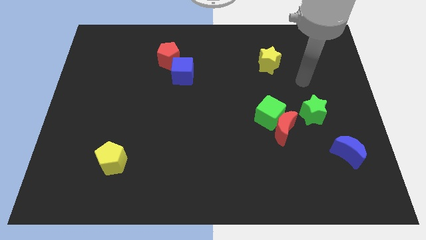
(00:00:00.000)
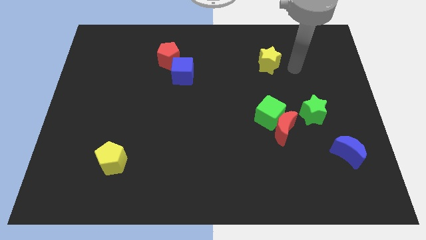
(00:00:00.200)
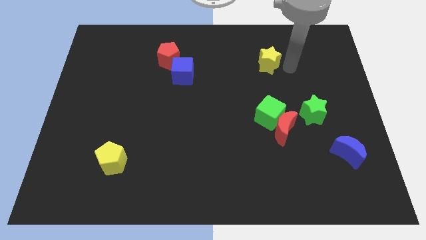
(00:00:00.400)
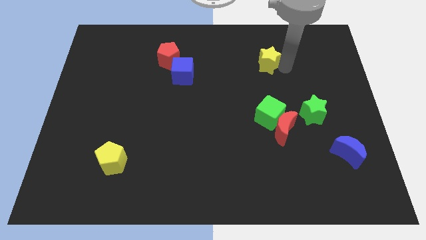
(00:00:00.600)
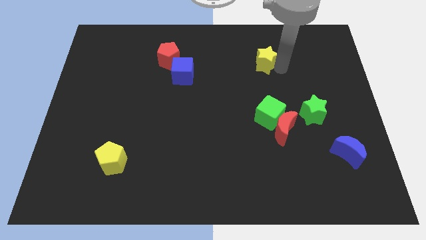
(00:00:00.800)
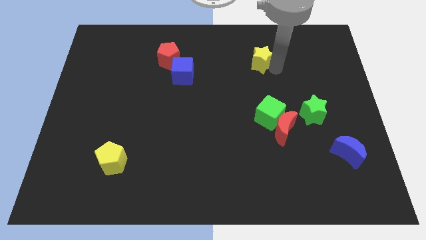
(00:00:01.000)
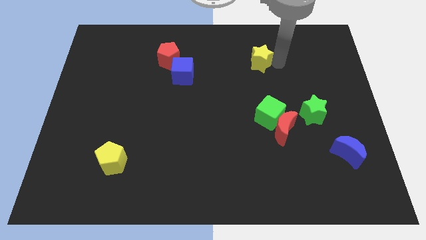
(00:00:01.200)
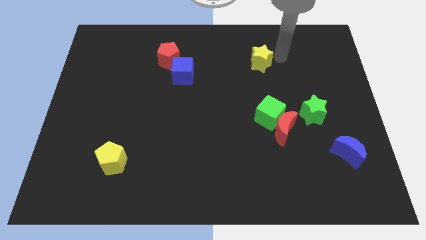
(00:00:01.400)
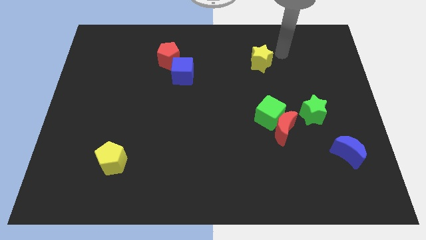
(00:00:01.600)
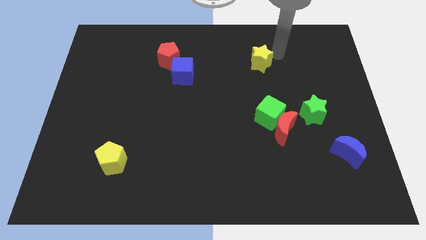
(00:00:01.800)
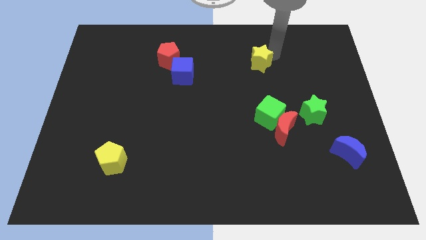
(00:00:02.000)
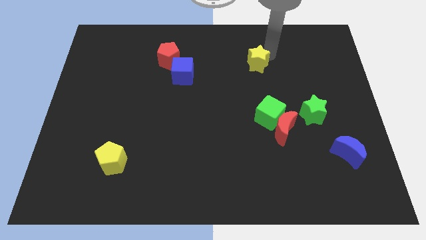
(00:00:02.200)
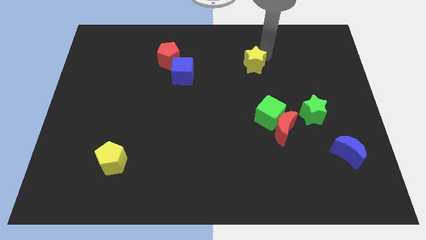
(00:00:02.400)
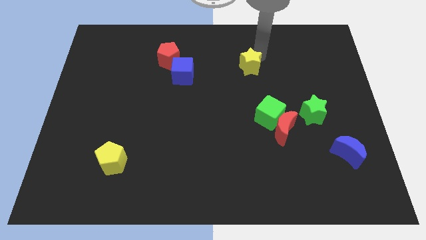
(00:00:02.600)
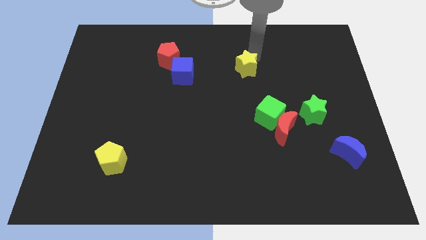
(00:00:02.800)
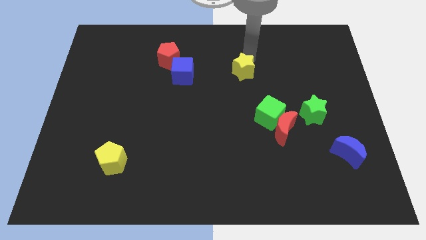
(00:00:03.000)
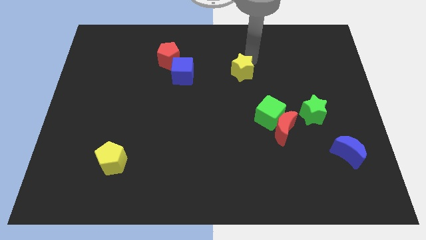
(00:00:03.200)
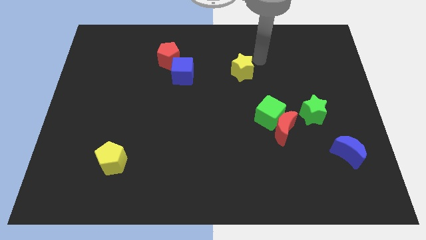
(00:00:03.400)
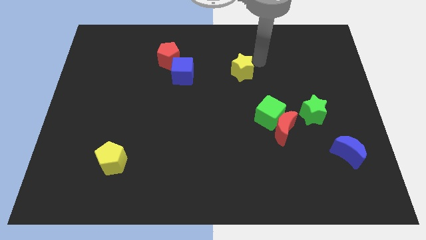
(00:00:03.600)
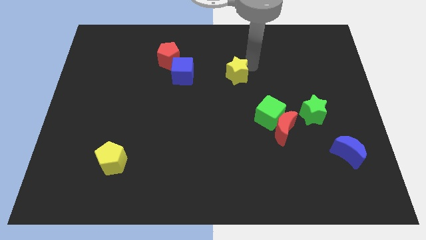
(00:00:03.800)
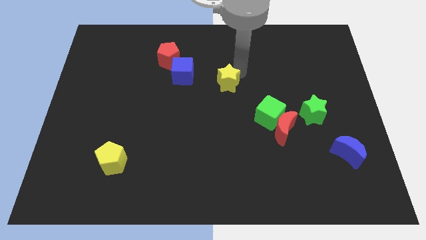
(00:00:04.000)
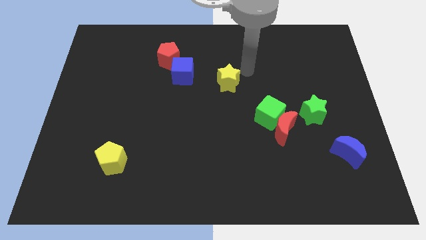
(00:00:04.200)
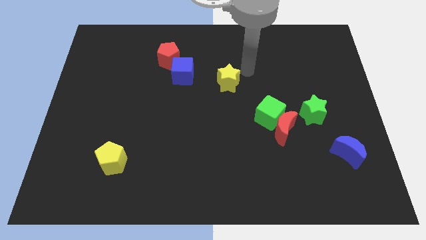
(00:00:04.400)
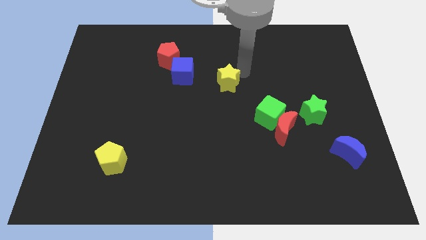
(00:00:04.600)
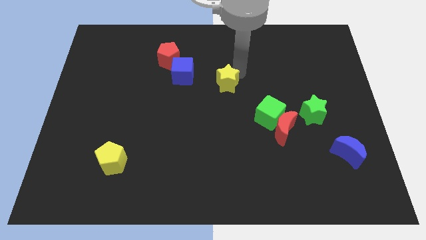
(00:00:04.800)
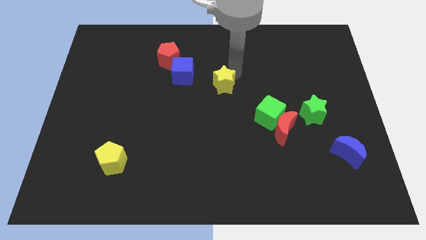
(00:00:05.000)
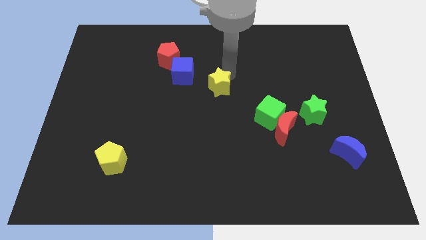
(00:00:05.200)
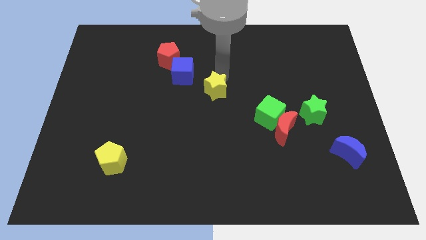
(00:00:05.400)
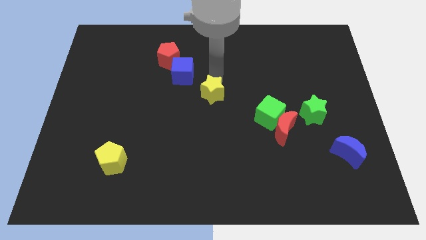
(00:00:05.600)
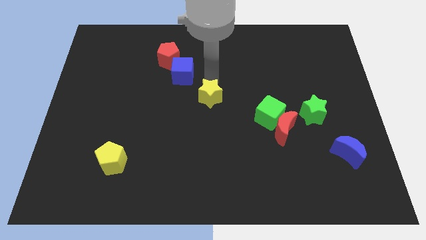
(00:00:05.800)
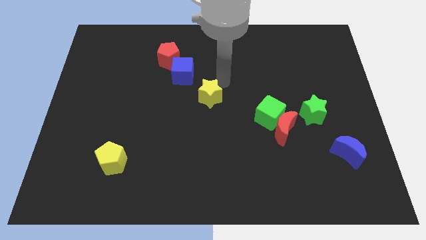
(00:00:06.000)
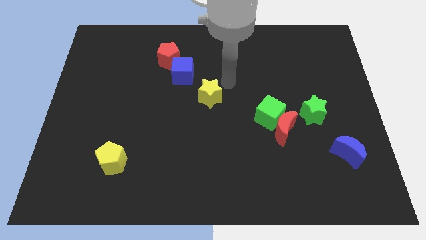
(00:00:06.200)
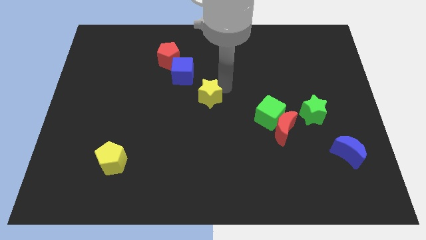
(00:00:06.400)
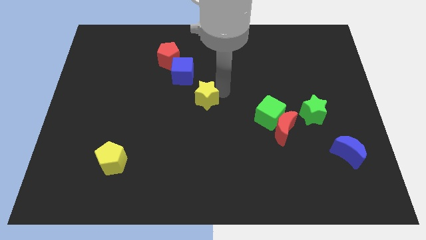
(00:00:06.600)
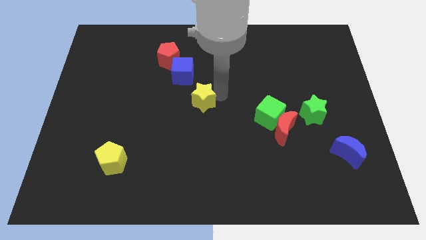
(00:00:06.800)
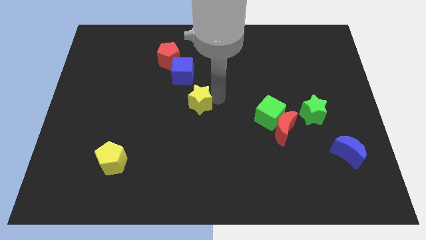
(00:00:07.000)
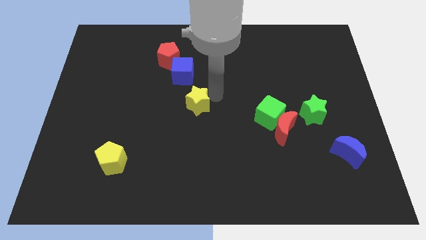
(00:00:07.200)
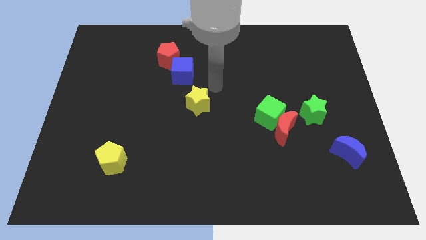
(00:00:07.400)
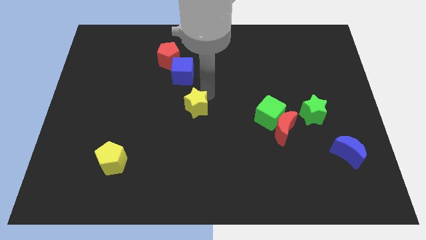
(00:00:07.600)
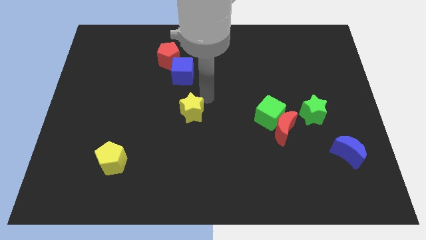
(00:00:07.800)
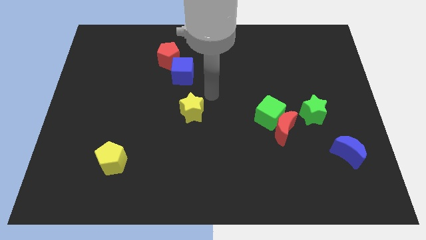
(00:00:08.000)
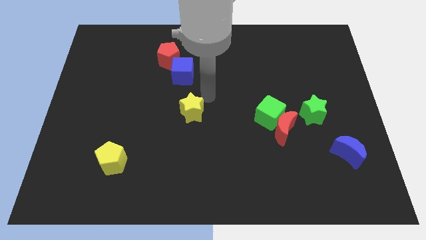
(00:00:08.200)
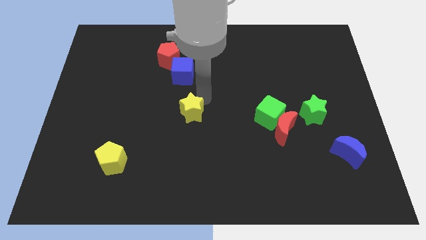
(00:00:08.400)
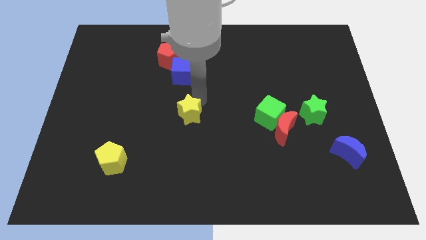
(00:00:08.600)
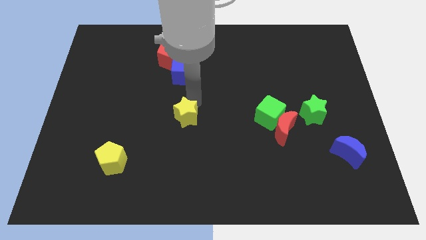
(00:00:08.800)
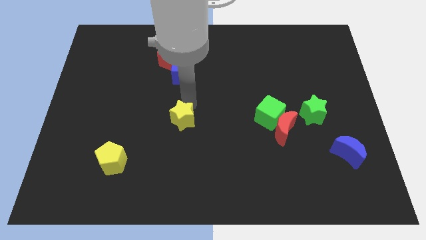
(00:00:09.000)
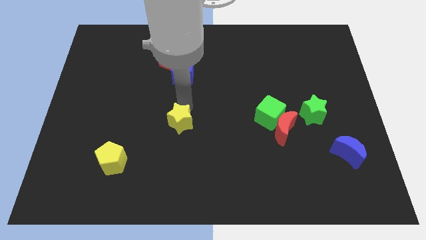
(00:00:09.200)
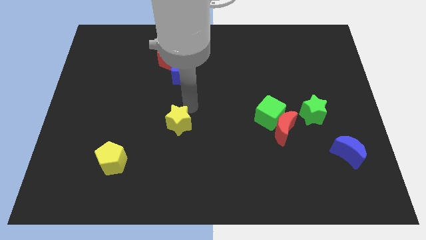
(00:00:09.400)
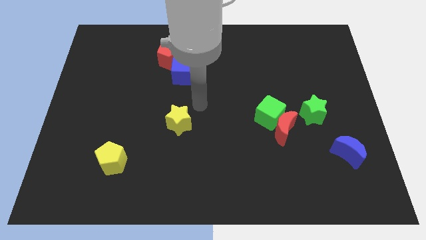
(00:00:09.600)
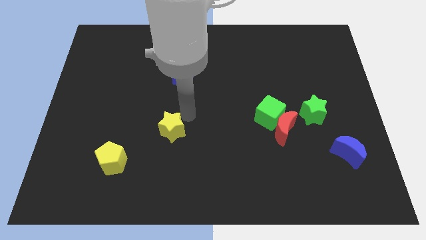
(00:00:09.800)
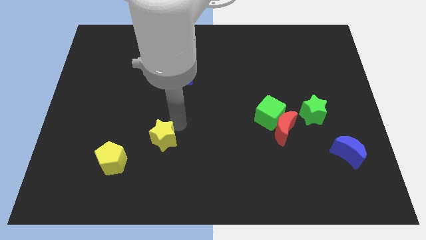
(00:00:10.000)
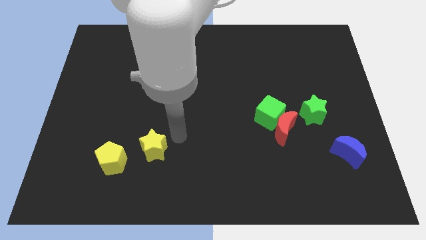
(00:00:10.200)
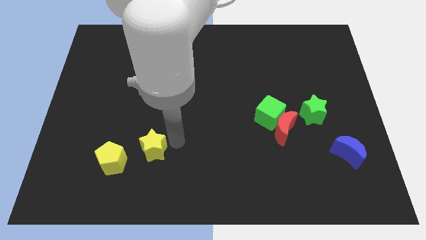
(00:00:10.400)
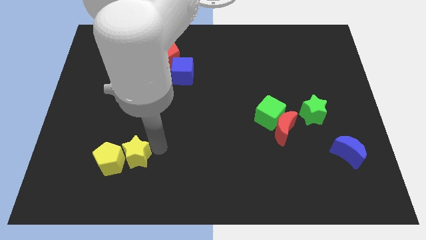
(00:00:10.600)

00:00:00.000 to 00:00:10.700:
push the yellow star close to the yellow pentagon

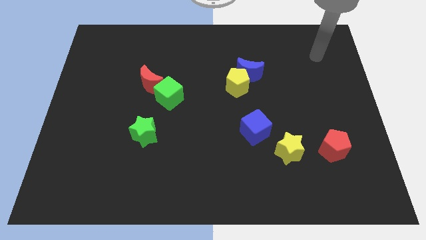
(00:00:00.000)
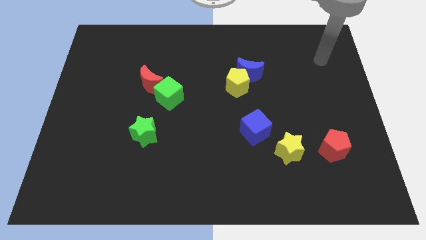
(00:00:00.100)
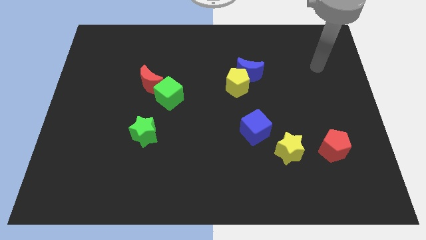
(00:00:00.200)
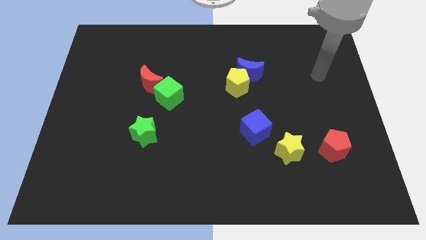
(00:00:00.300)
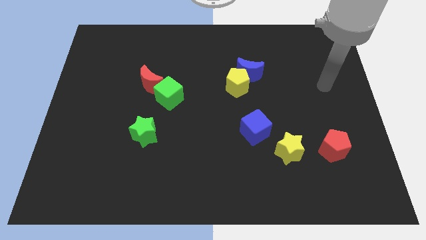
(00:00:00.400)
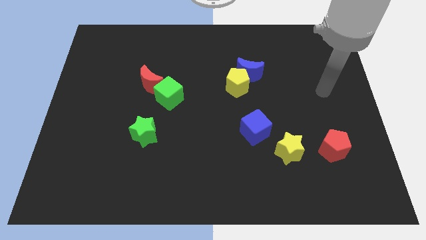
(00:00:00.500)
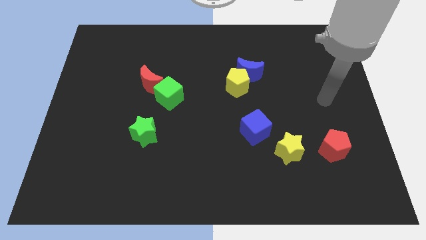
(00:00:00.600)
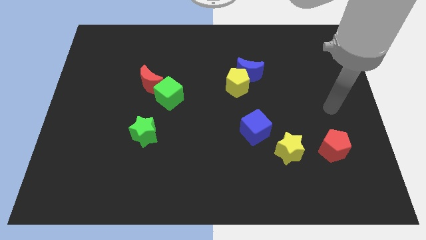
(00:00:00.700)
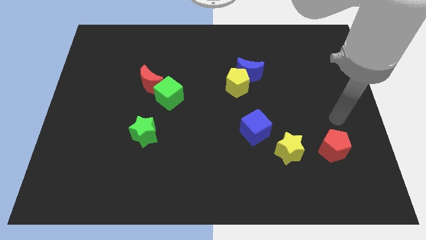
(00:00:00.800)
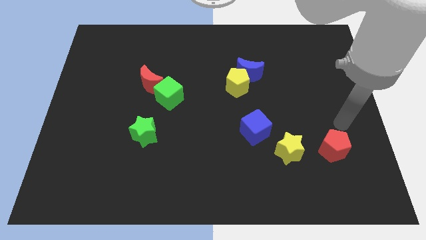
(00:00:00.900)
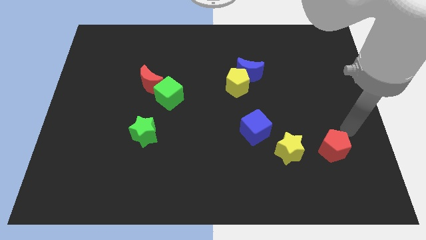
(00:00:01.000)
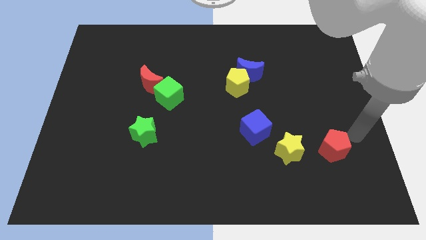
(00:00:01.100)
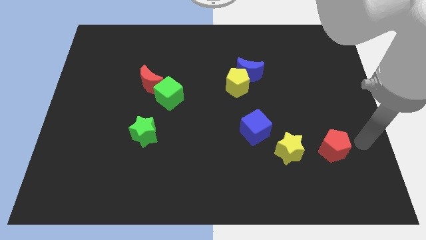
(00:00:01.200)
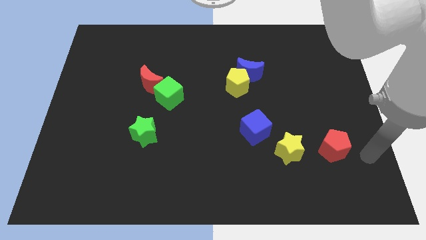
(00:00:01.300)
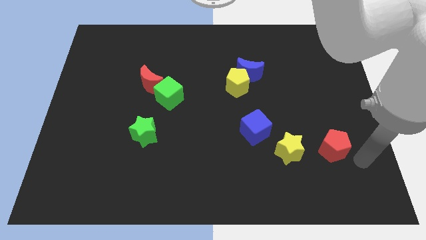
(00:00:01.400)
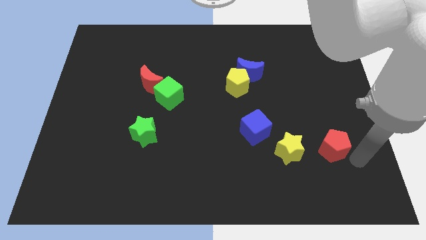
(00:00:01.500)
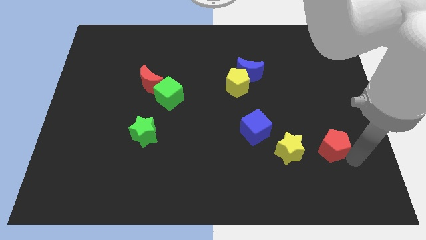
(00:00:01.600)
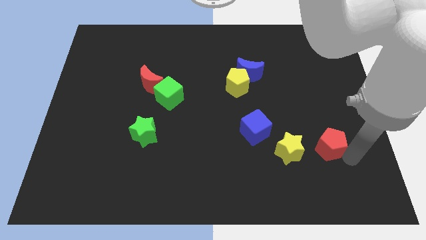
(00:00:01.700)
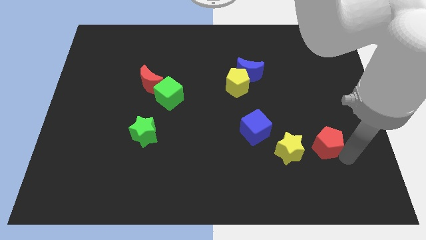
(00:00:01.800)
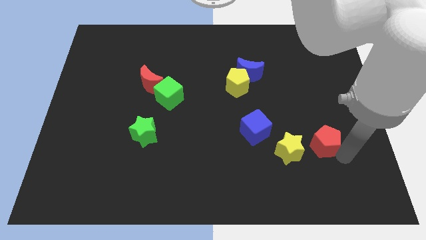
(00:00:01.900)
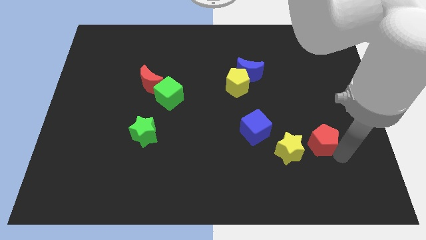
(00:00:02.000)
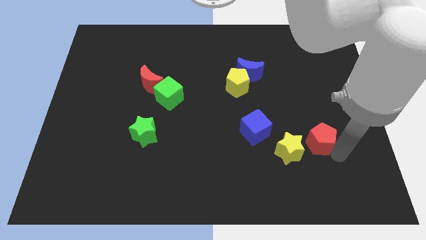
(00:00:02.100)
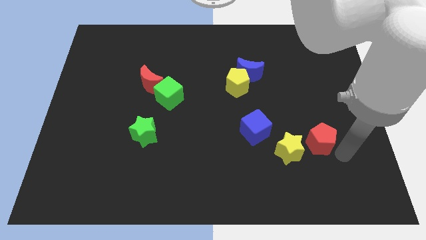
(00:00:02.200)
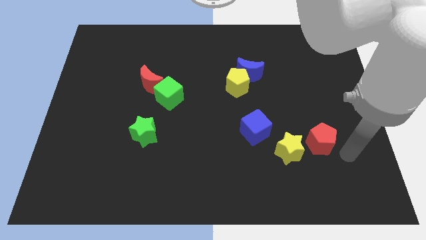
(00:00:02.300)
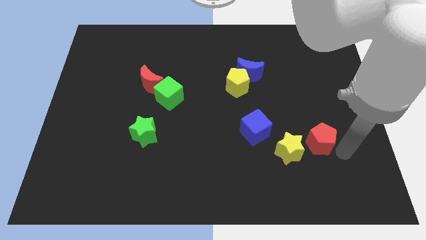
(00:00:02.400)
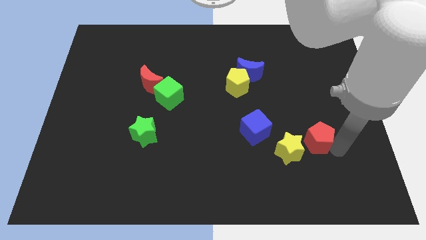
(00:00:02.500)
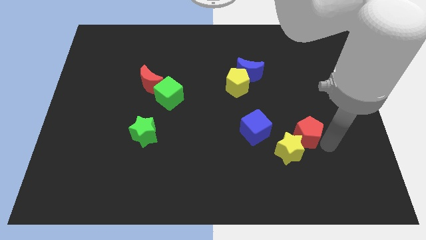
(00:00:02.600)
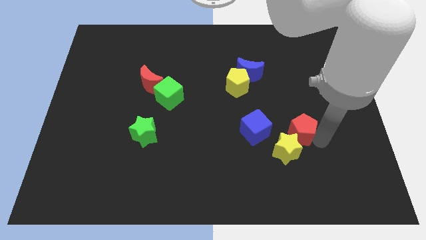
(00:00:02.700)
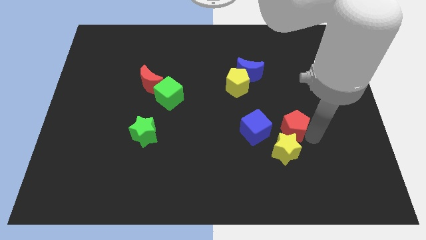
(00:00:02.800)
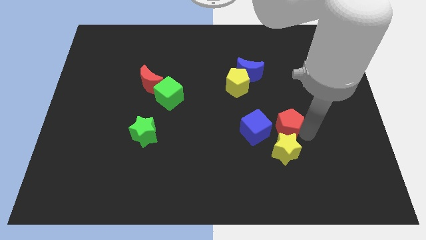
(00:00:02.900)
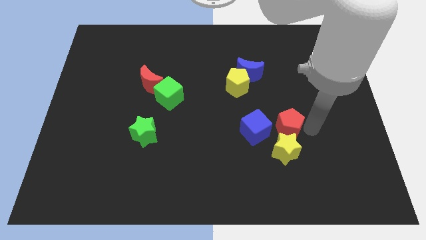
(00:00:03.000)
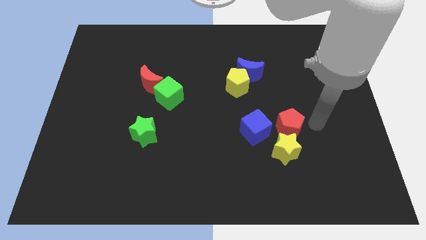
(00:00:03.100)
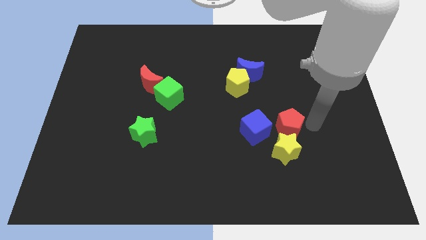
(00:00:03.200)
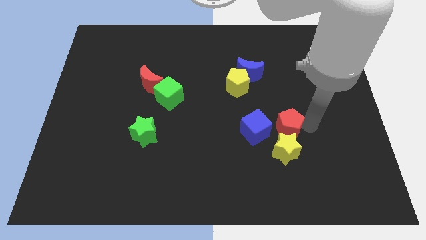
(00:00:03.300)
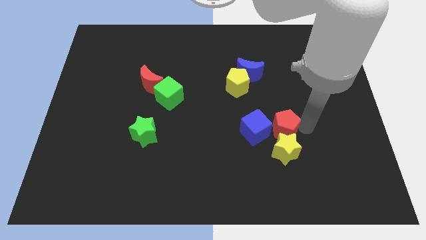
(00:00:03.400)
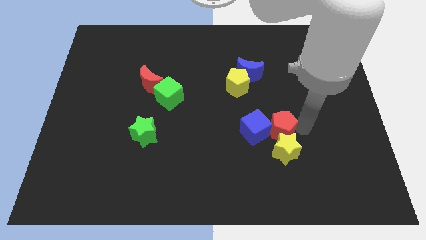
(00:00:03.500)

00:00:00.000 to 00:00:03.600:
slide the red pentagon close to the blue cube
